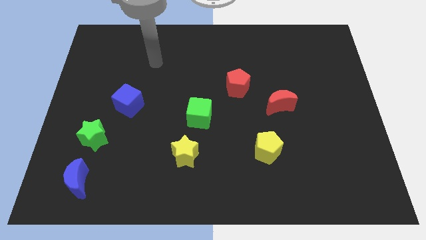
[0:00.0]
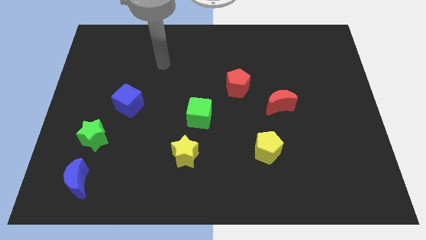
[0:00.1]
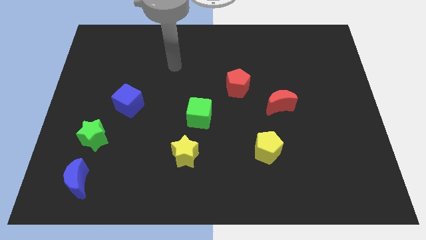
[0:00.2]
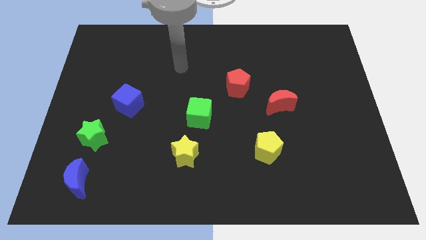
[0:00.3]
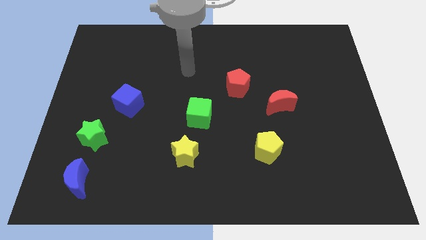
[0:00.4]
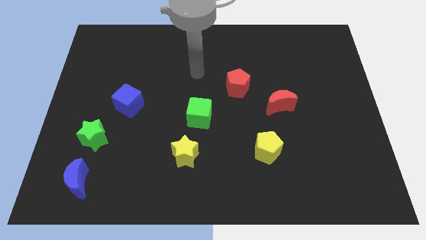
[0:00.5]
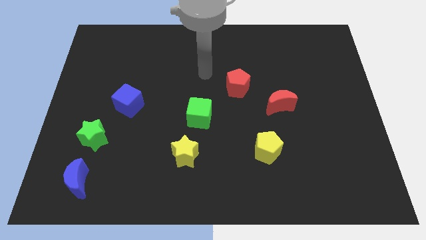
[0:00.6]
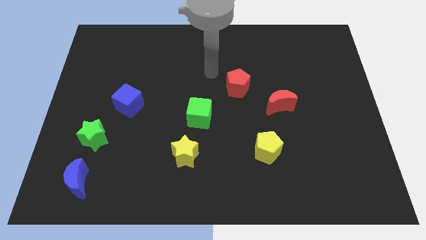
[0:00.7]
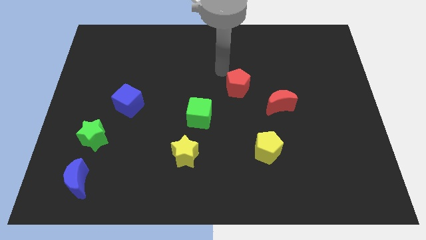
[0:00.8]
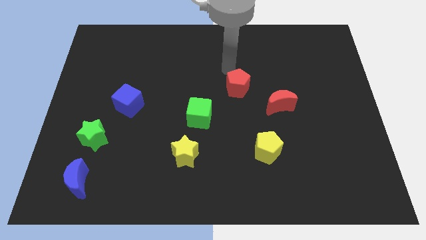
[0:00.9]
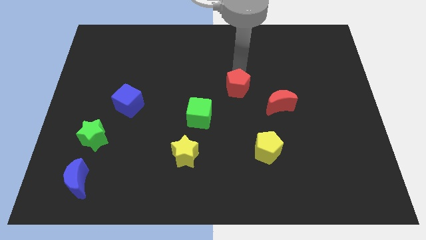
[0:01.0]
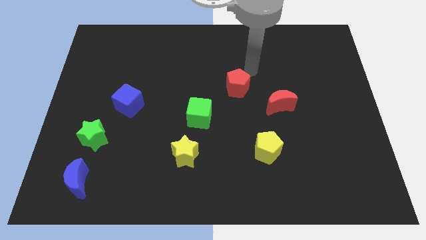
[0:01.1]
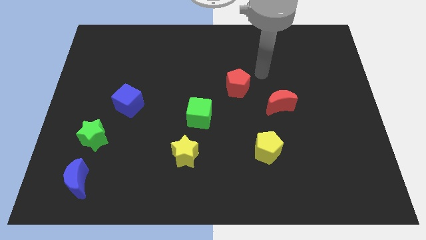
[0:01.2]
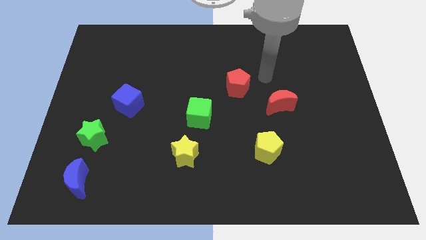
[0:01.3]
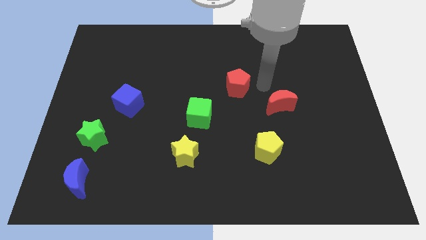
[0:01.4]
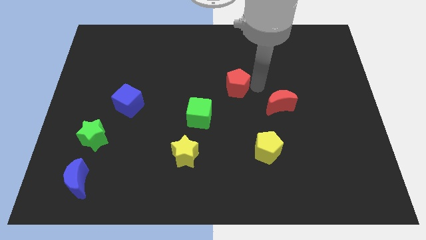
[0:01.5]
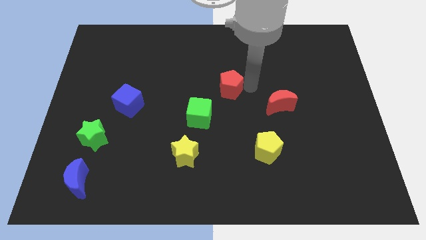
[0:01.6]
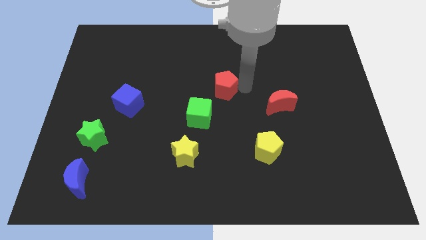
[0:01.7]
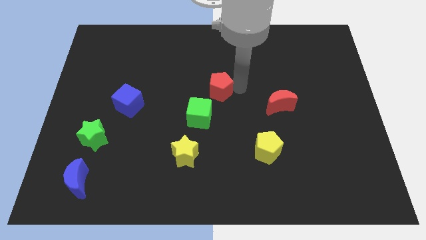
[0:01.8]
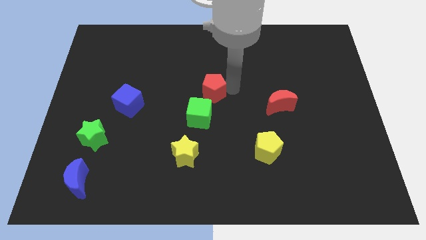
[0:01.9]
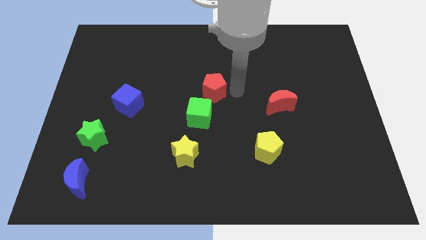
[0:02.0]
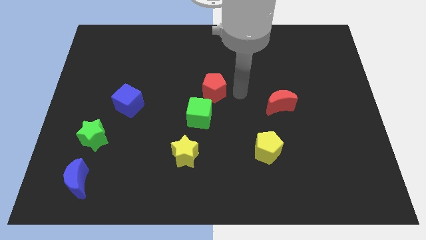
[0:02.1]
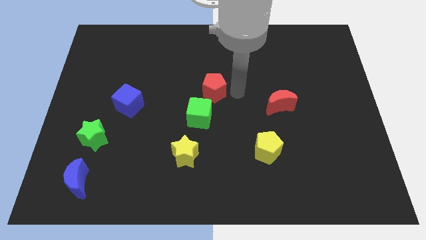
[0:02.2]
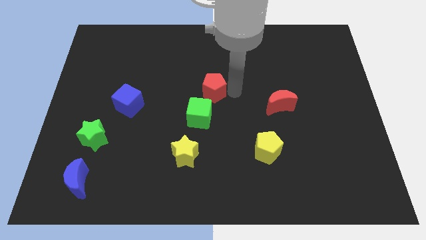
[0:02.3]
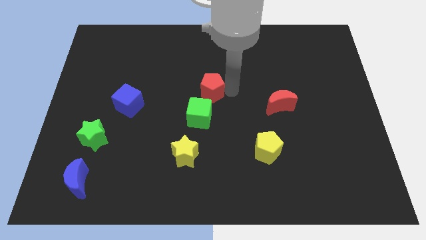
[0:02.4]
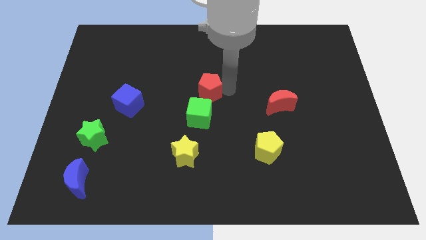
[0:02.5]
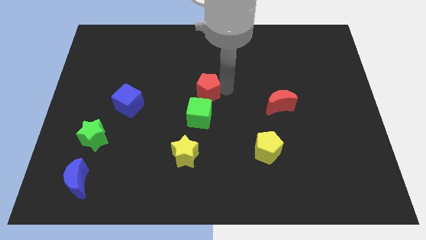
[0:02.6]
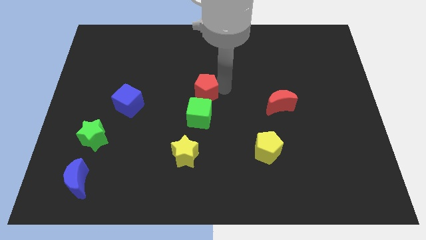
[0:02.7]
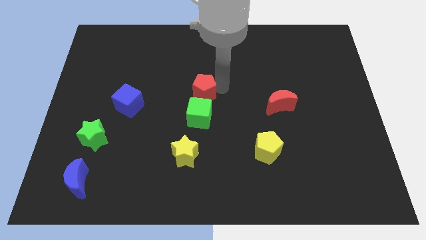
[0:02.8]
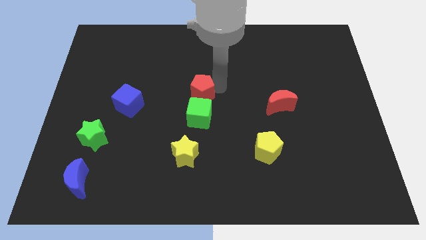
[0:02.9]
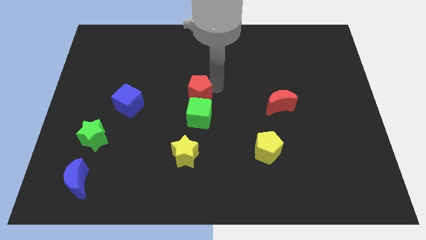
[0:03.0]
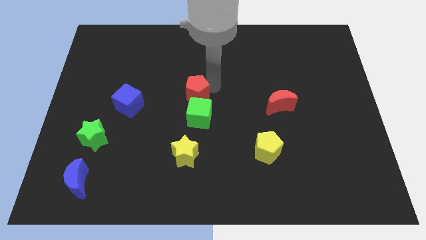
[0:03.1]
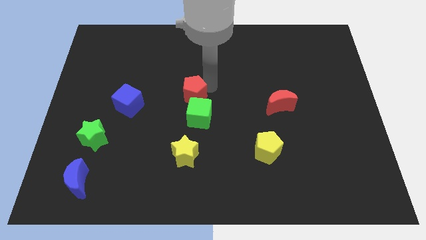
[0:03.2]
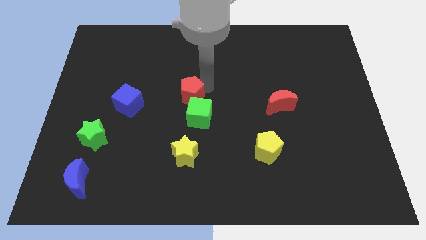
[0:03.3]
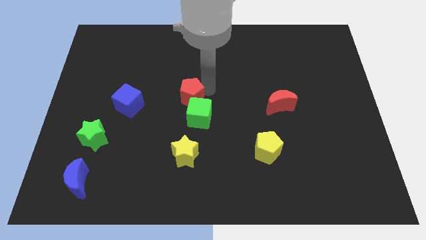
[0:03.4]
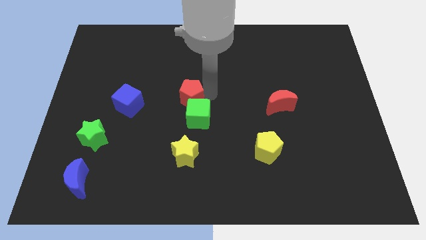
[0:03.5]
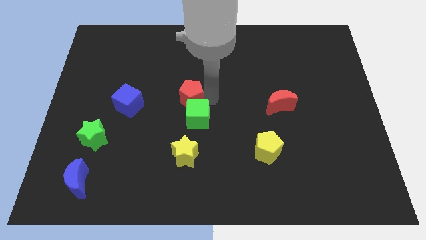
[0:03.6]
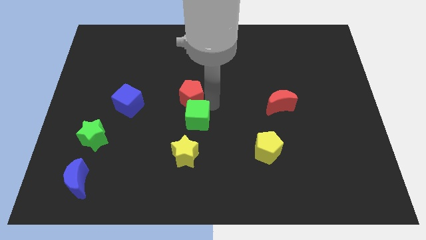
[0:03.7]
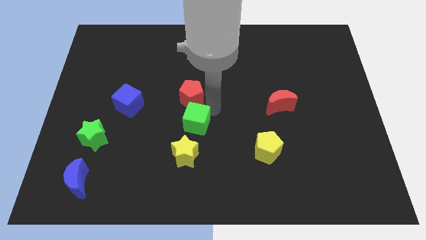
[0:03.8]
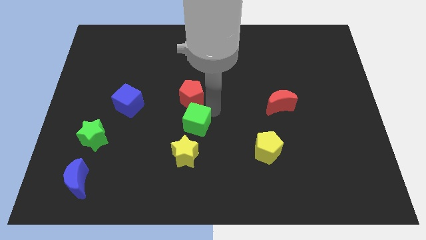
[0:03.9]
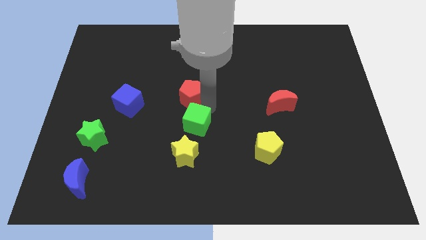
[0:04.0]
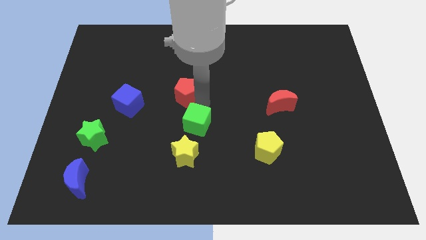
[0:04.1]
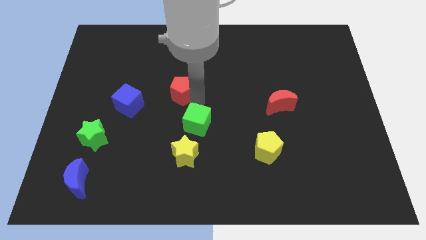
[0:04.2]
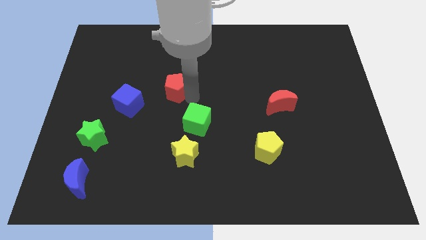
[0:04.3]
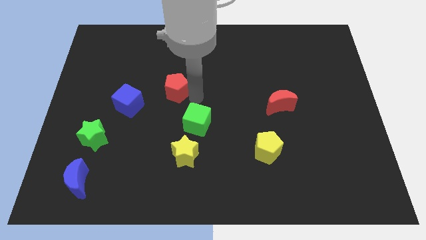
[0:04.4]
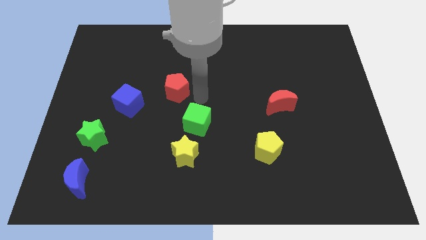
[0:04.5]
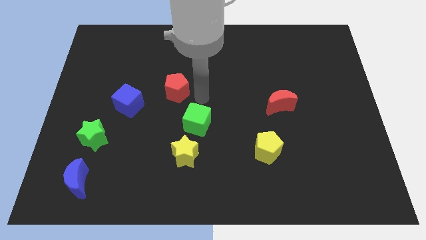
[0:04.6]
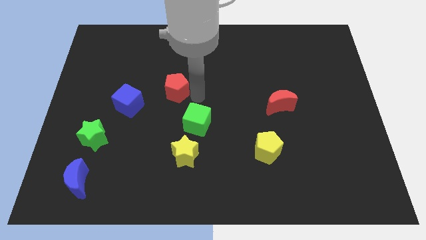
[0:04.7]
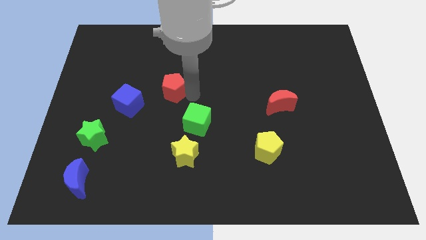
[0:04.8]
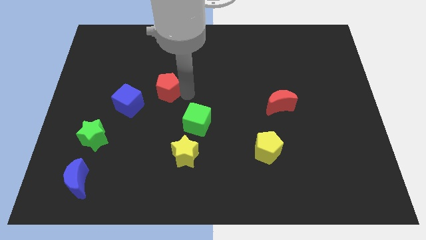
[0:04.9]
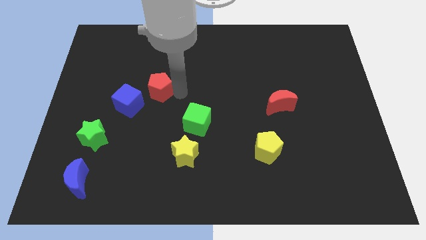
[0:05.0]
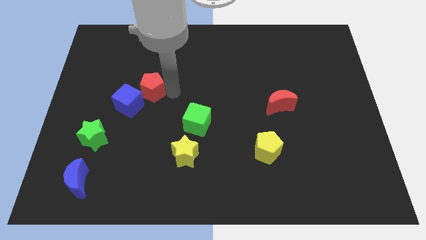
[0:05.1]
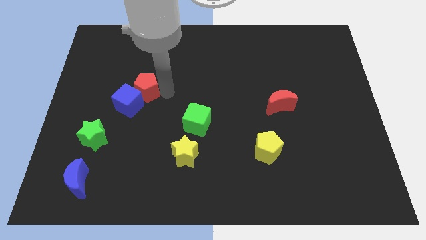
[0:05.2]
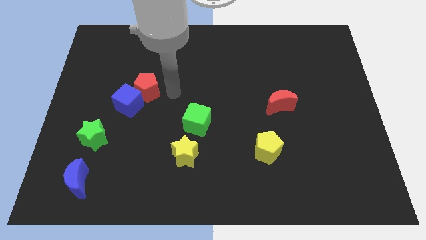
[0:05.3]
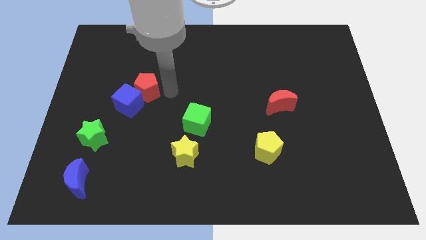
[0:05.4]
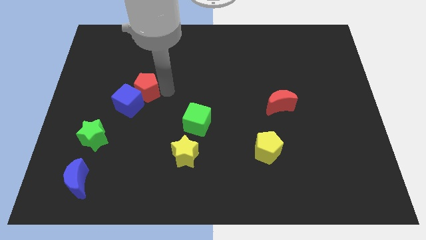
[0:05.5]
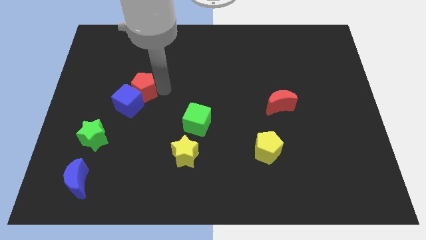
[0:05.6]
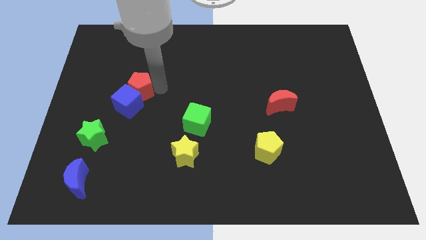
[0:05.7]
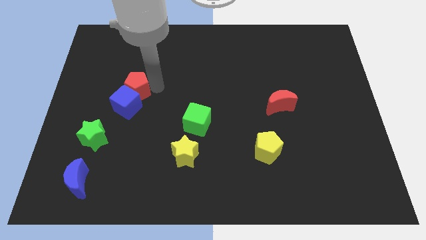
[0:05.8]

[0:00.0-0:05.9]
slide the red pentagon to the top left side of the blue cube

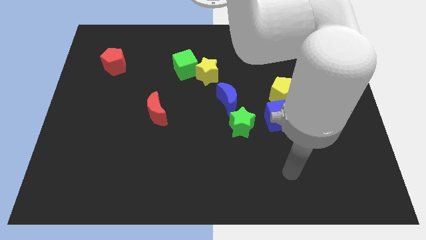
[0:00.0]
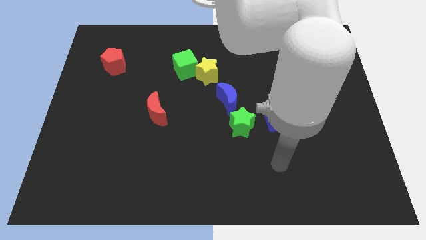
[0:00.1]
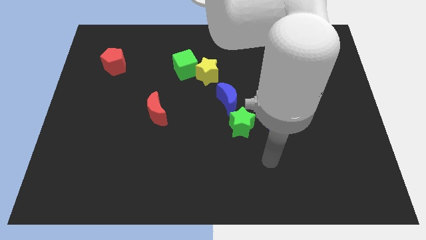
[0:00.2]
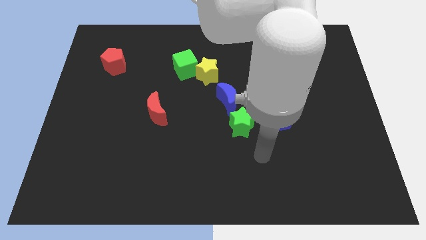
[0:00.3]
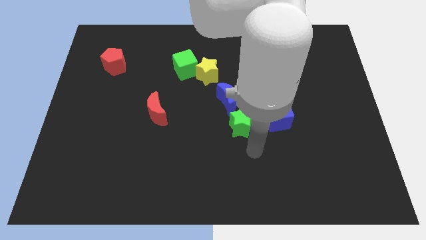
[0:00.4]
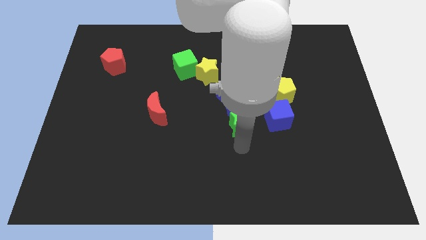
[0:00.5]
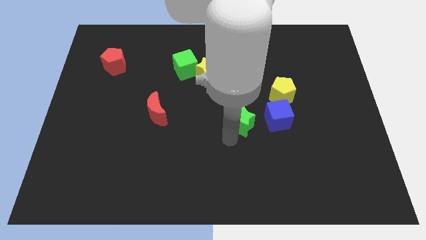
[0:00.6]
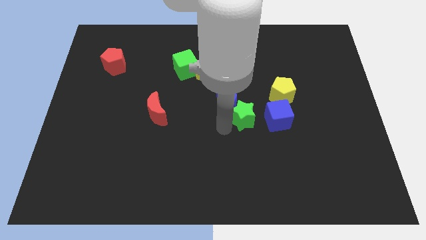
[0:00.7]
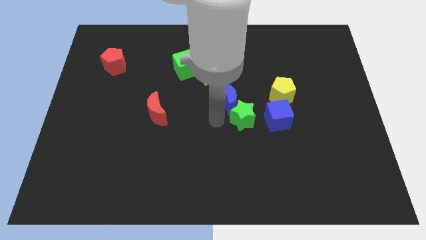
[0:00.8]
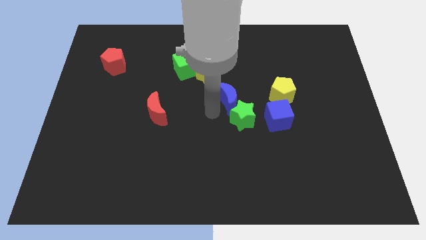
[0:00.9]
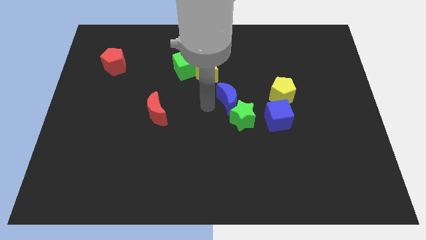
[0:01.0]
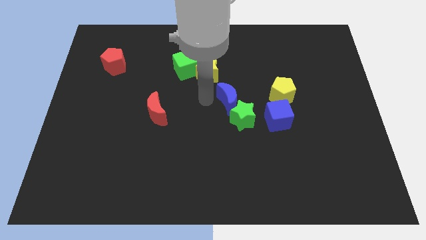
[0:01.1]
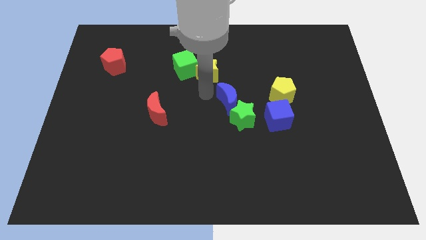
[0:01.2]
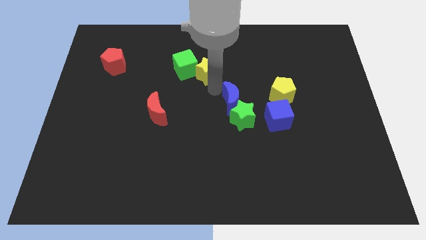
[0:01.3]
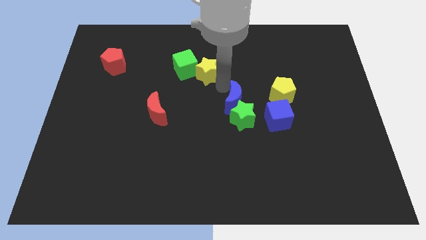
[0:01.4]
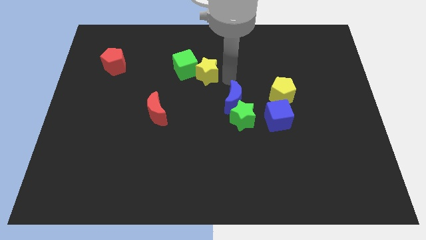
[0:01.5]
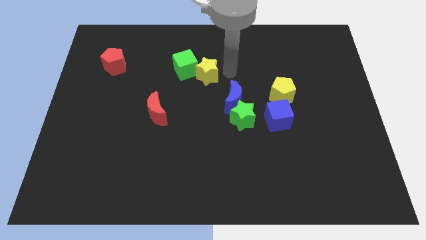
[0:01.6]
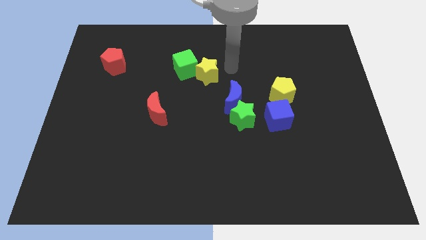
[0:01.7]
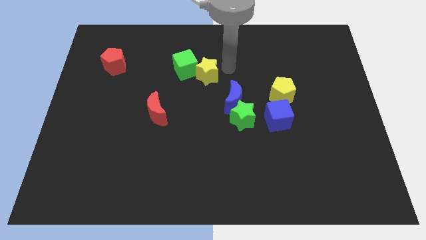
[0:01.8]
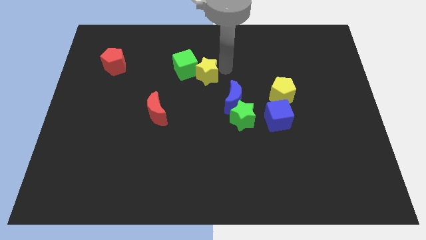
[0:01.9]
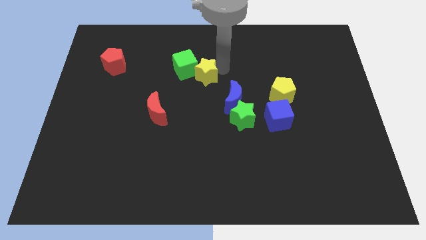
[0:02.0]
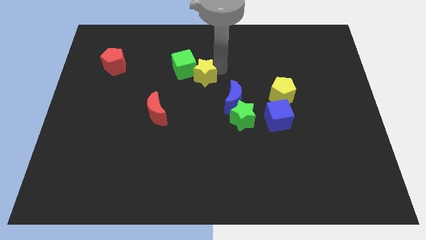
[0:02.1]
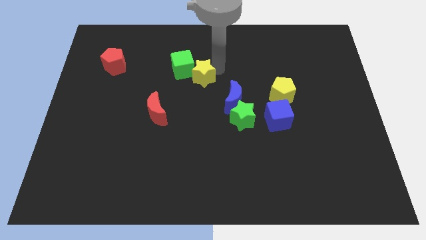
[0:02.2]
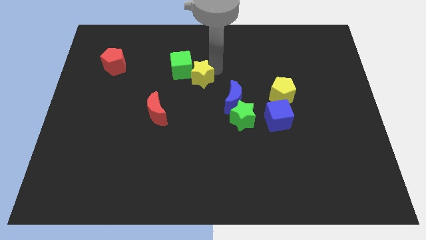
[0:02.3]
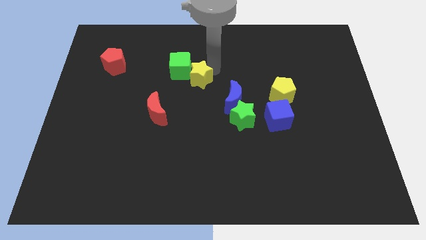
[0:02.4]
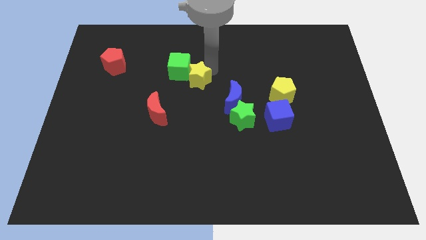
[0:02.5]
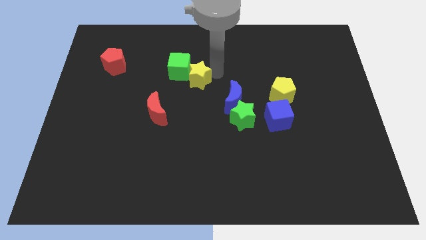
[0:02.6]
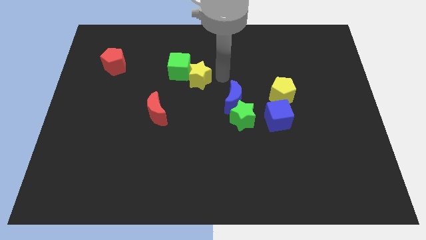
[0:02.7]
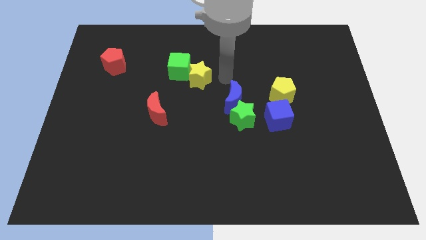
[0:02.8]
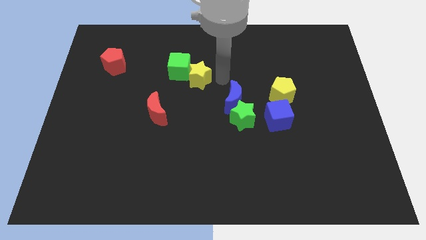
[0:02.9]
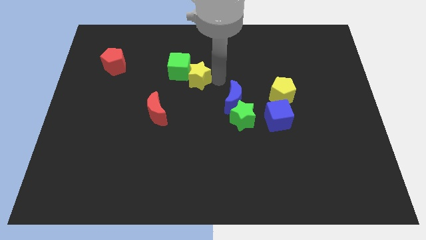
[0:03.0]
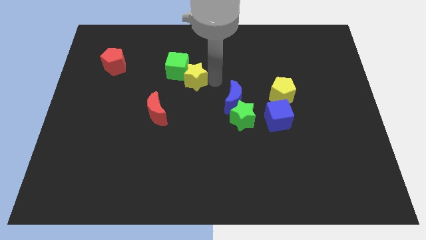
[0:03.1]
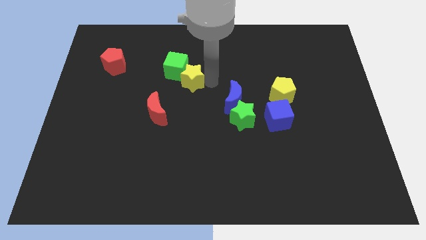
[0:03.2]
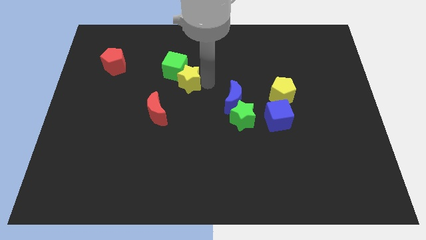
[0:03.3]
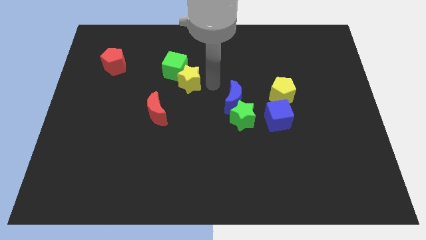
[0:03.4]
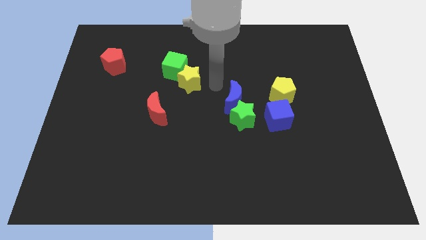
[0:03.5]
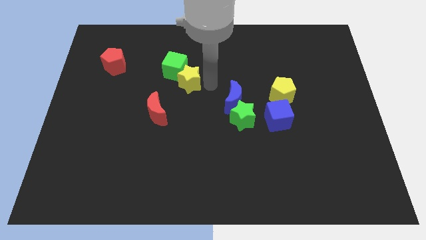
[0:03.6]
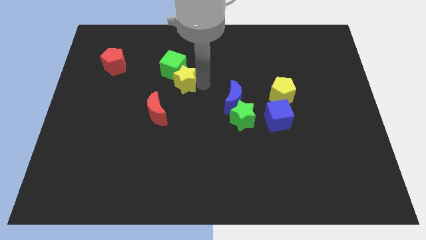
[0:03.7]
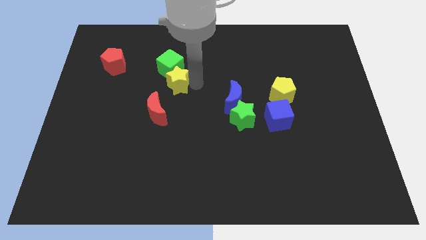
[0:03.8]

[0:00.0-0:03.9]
slide the yellow star to the top side of the red moon
